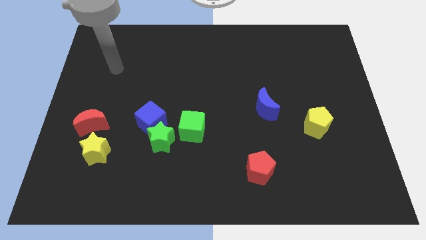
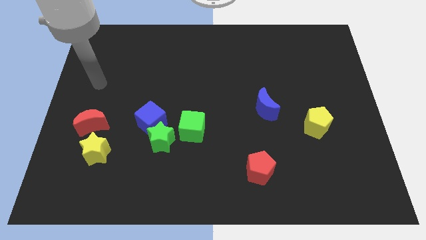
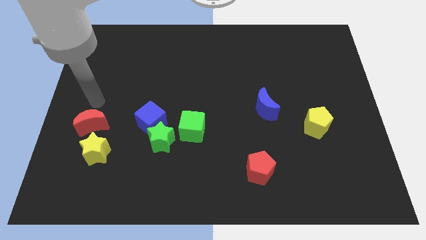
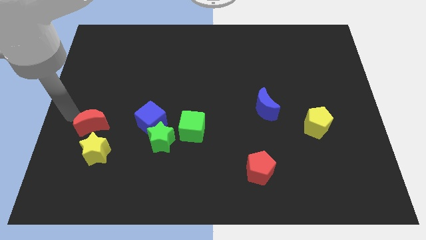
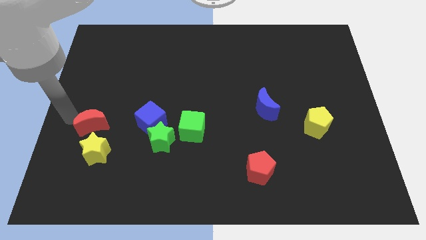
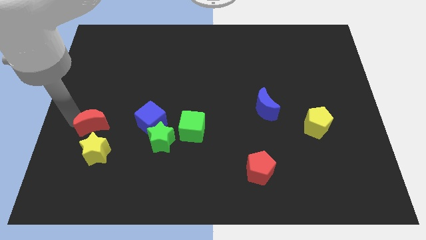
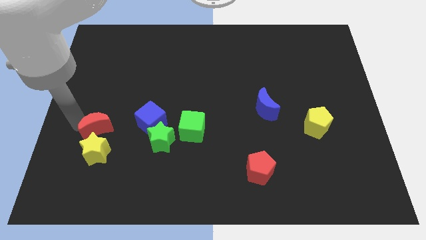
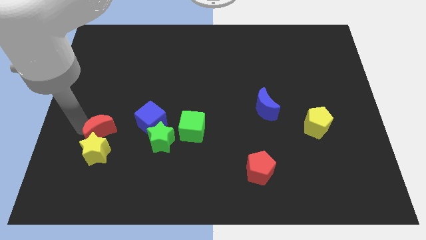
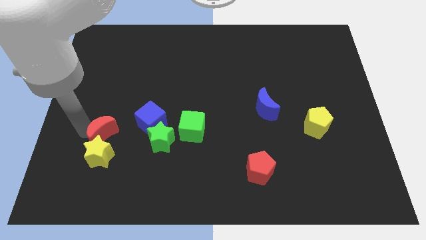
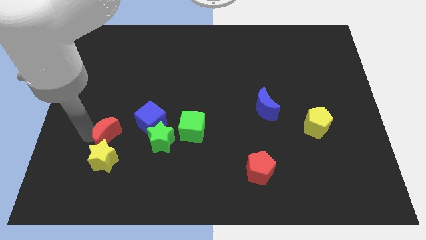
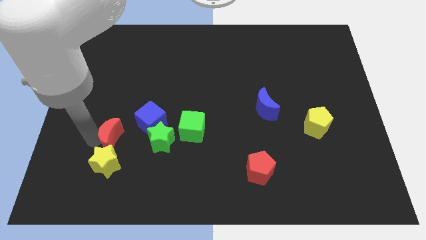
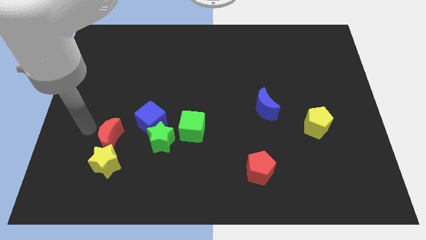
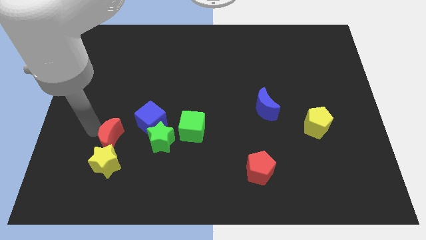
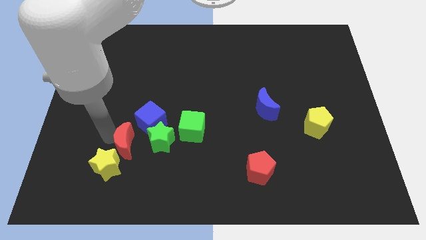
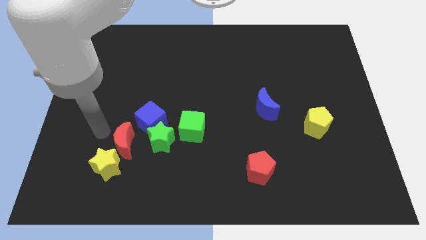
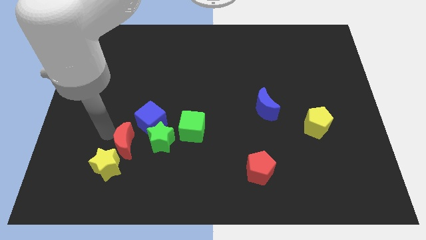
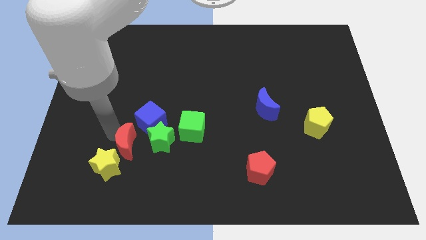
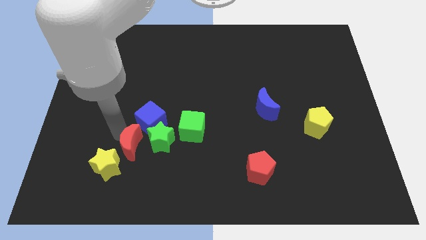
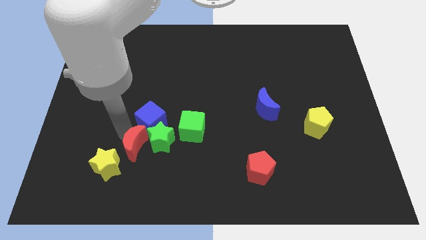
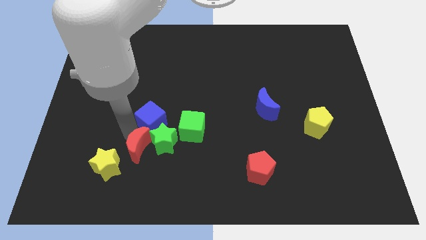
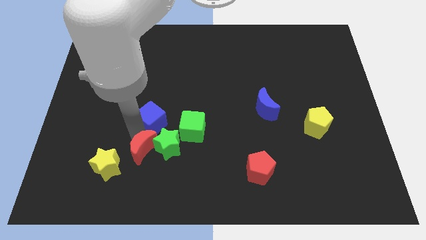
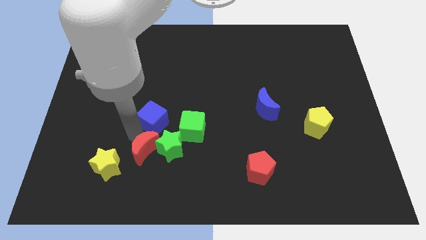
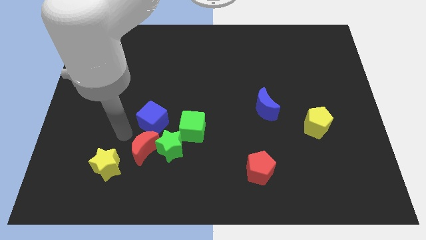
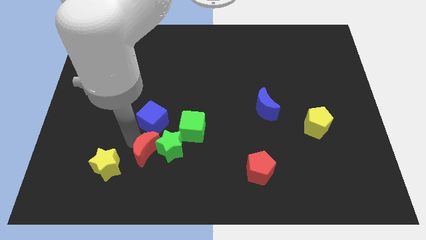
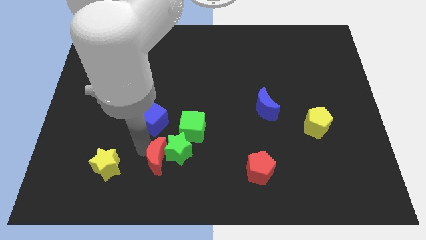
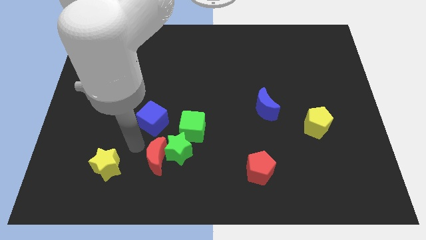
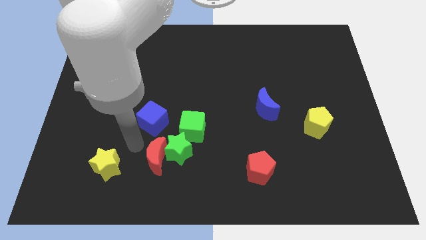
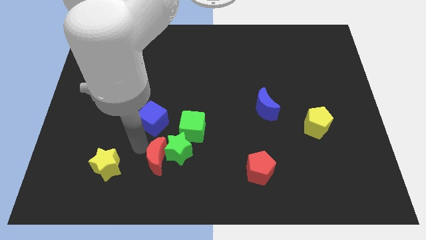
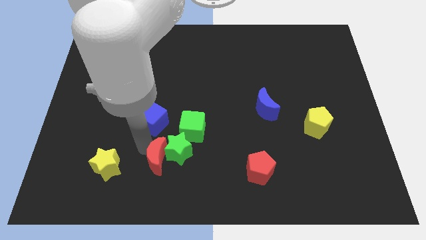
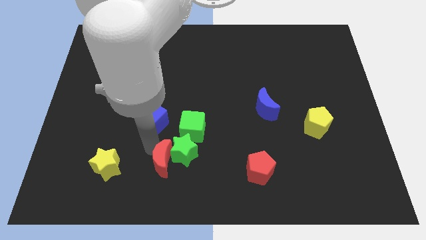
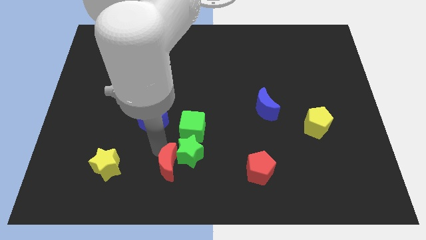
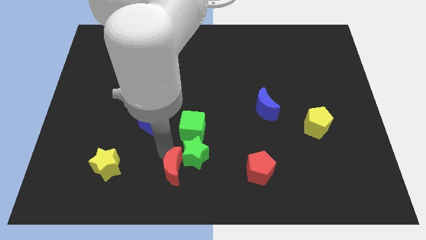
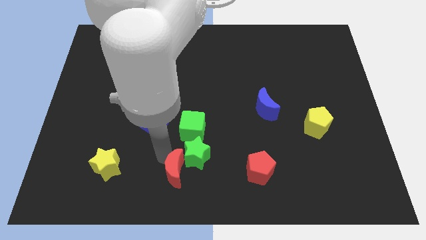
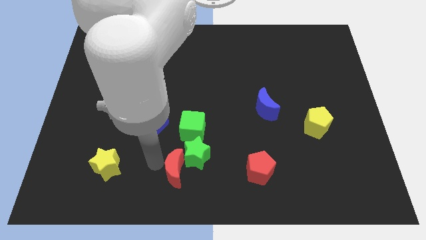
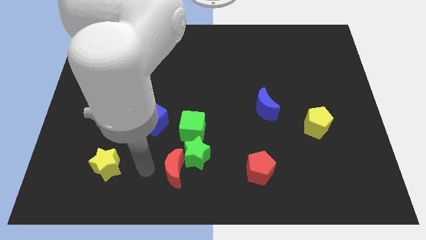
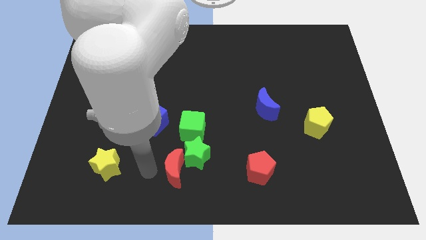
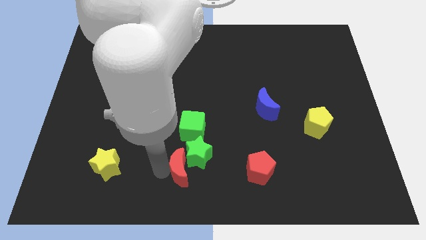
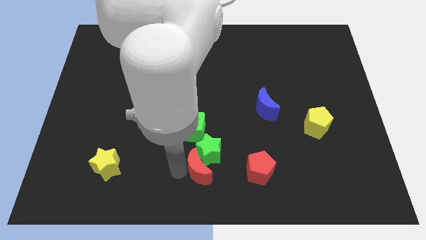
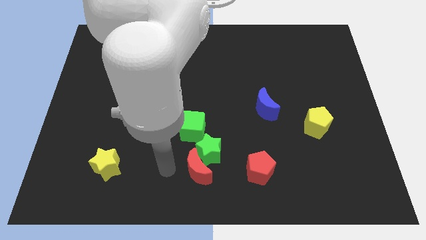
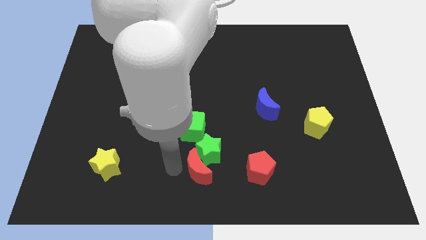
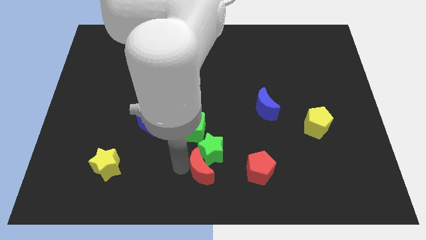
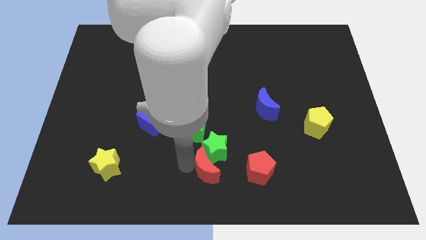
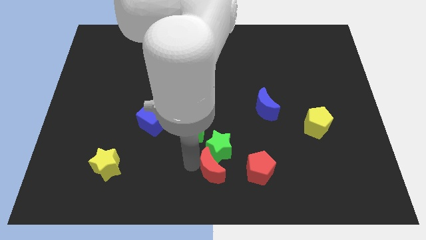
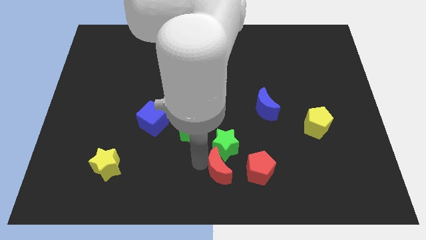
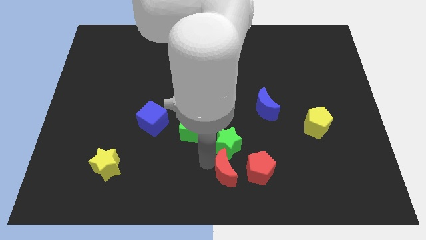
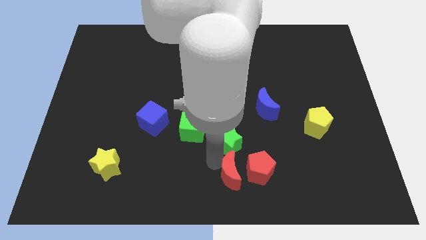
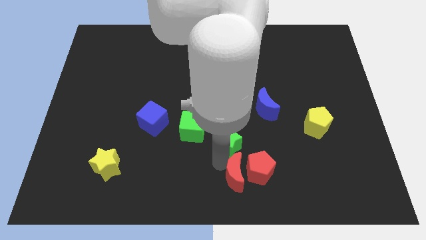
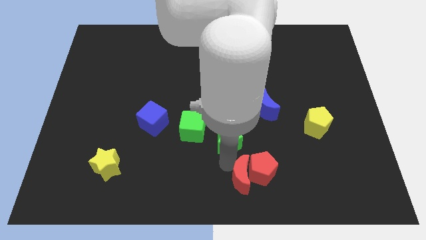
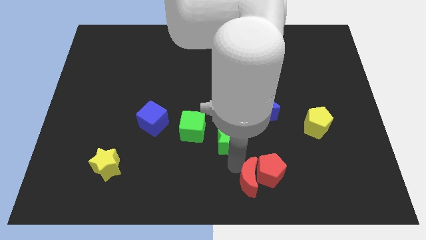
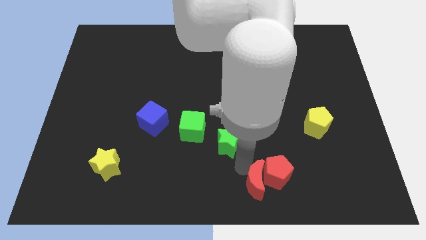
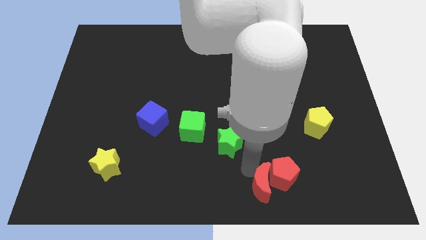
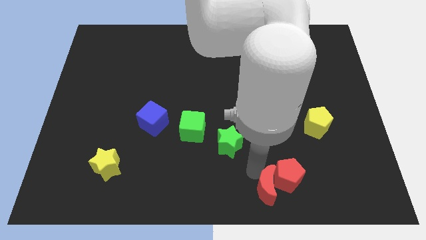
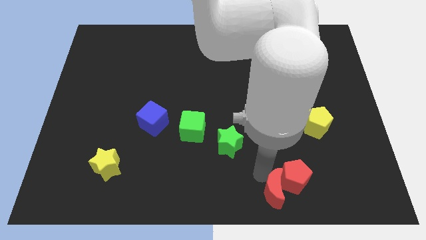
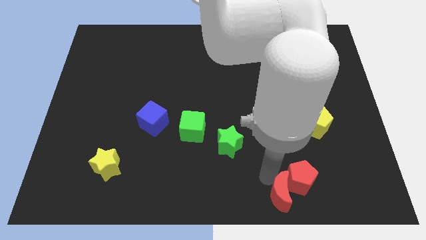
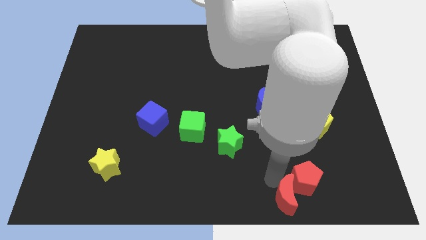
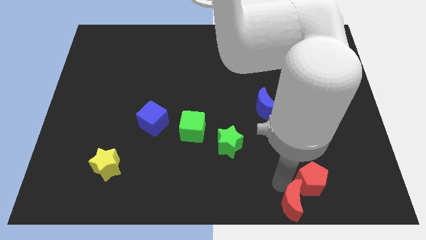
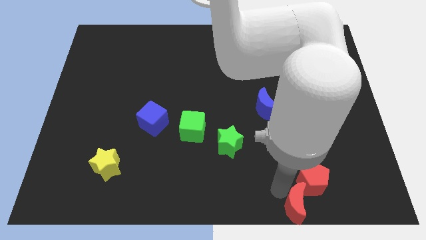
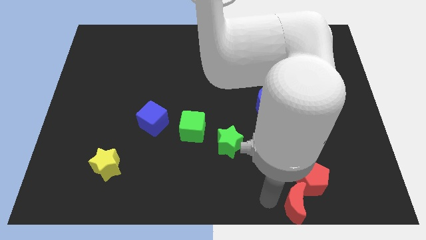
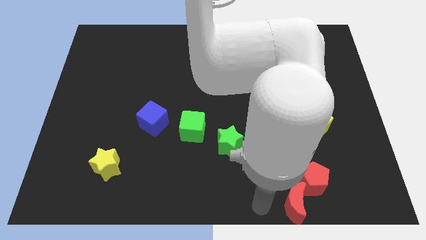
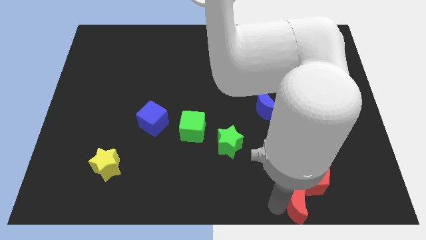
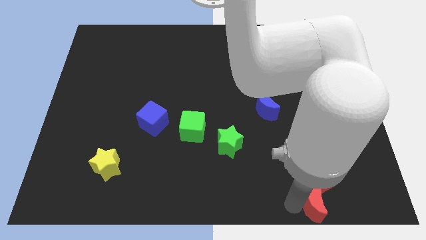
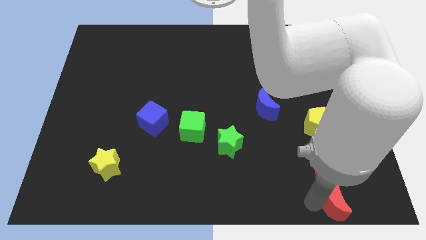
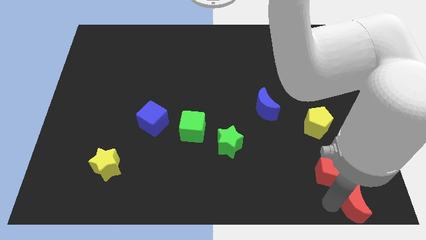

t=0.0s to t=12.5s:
slide the red moon to the lower right corner
